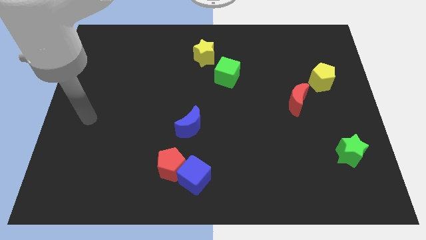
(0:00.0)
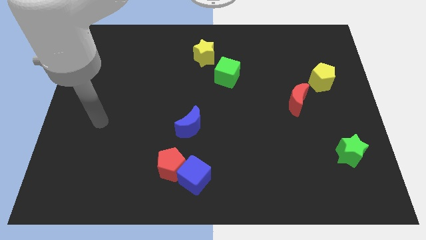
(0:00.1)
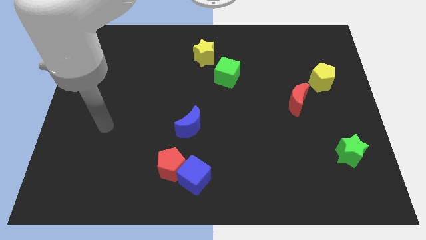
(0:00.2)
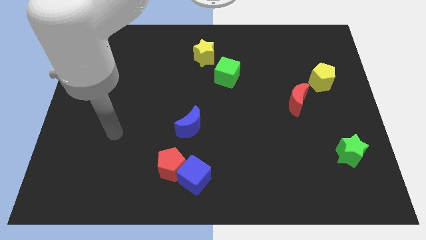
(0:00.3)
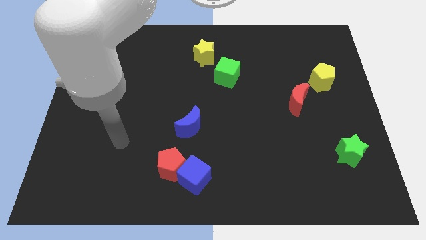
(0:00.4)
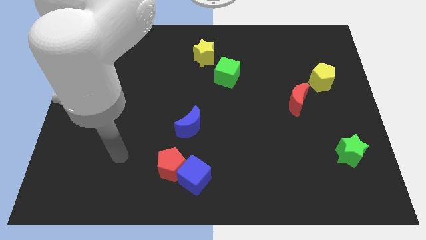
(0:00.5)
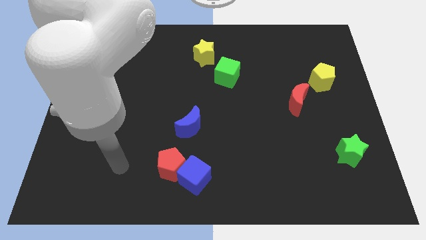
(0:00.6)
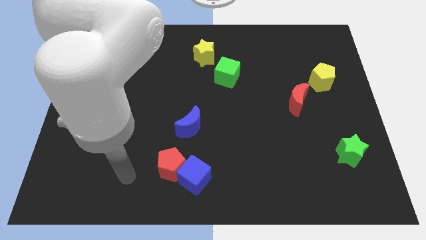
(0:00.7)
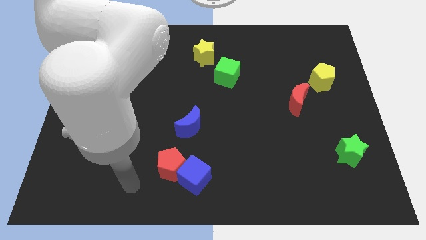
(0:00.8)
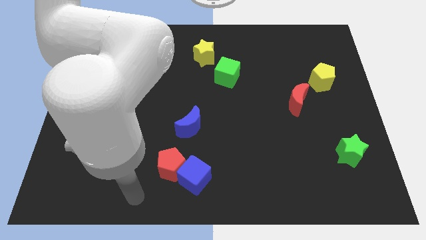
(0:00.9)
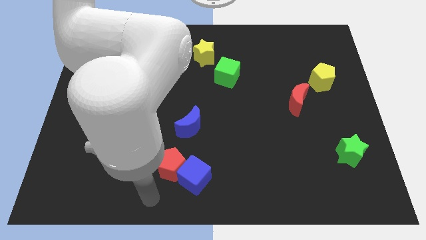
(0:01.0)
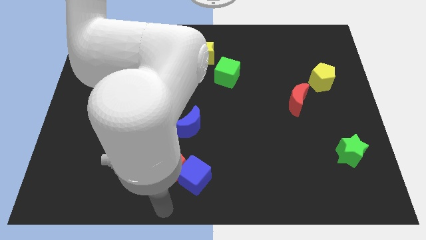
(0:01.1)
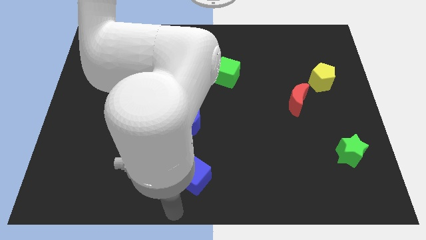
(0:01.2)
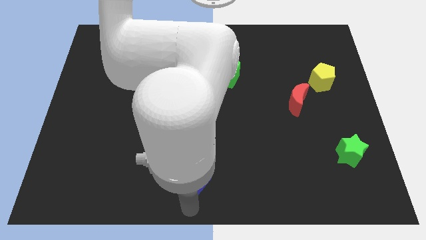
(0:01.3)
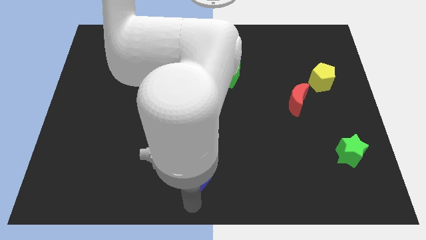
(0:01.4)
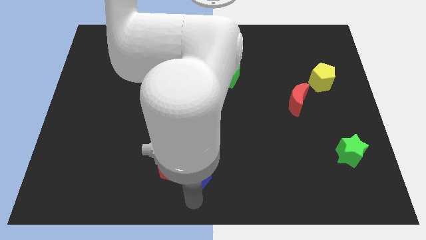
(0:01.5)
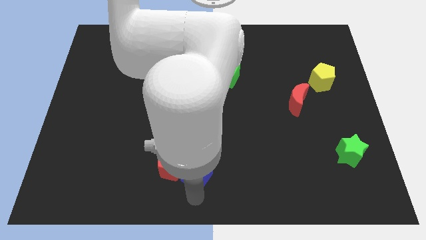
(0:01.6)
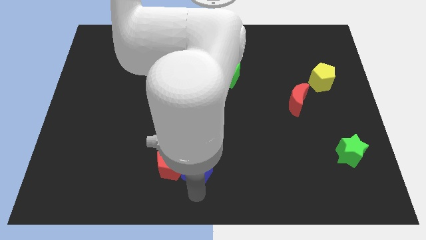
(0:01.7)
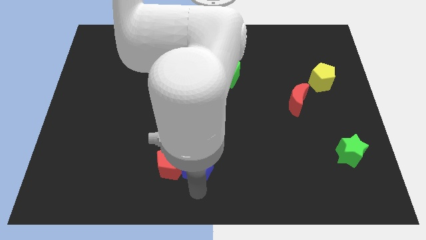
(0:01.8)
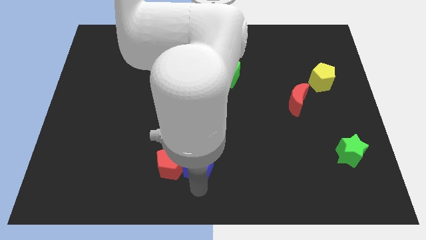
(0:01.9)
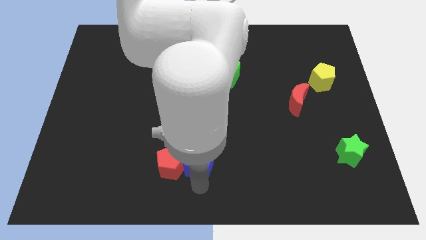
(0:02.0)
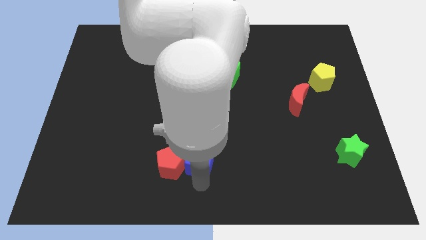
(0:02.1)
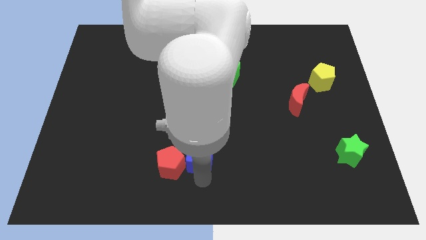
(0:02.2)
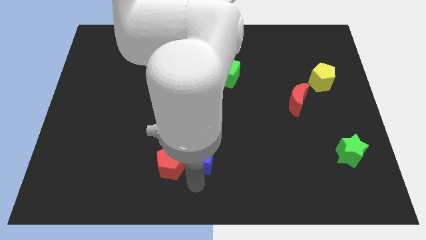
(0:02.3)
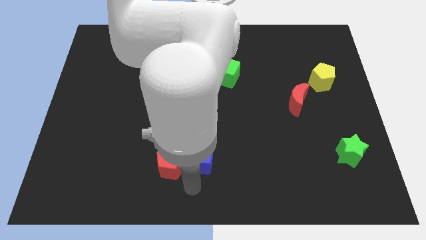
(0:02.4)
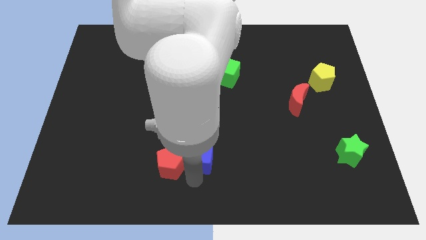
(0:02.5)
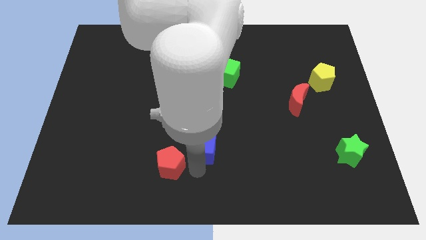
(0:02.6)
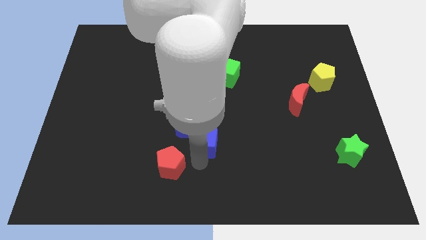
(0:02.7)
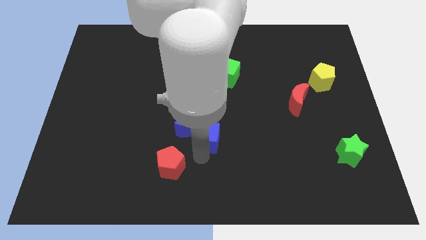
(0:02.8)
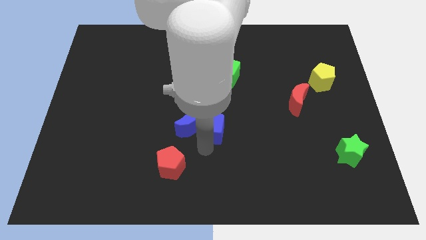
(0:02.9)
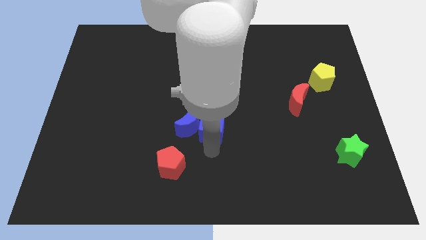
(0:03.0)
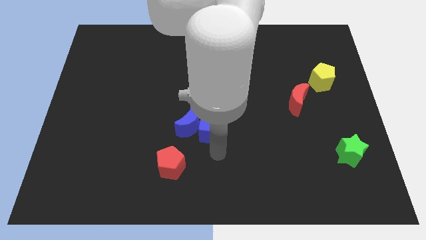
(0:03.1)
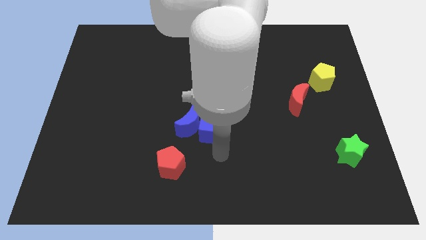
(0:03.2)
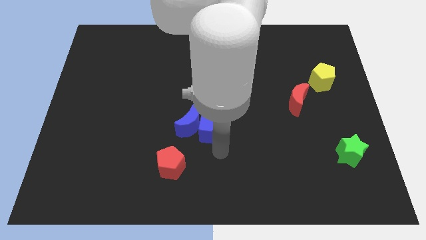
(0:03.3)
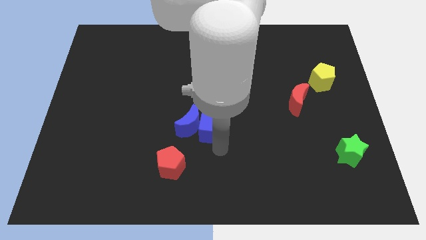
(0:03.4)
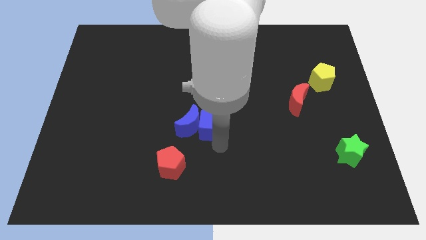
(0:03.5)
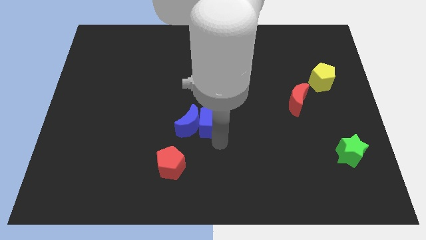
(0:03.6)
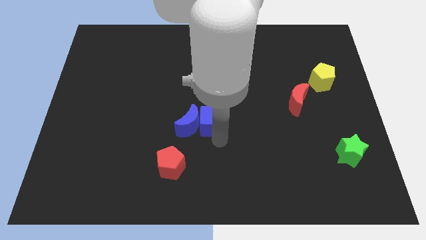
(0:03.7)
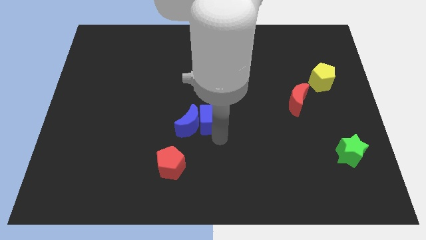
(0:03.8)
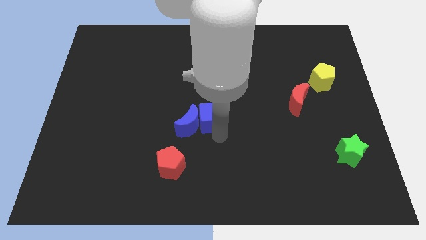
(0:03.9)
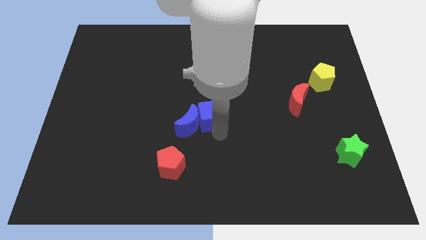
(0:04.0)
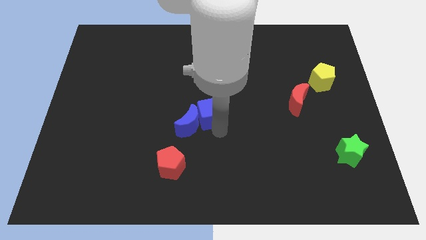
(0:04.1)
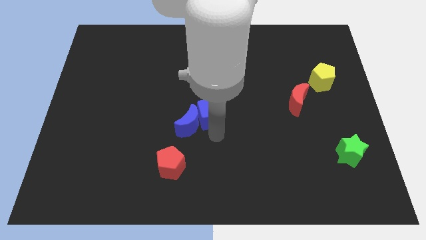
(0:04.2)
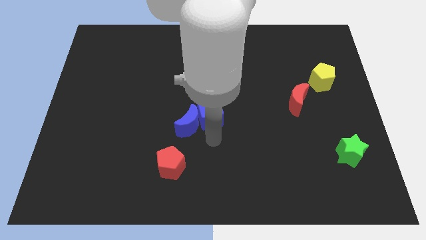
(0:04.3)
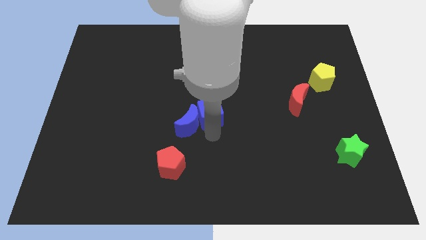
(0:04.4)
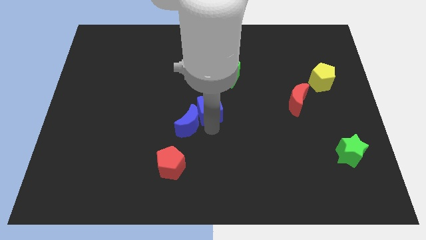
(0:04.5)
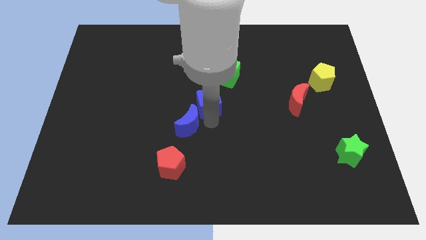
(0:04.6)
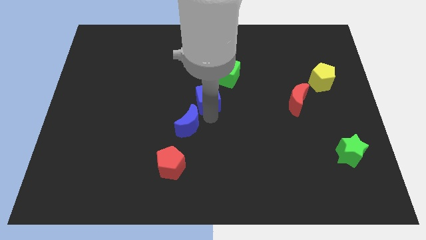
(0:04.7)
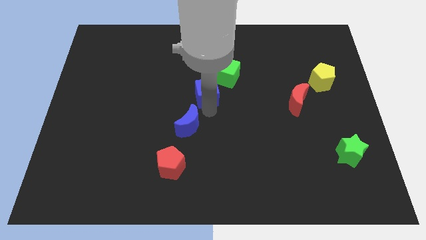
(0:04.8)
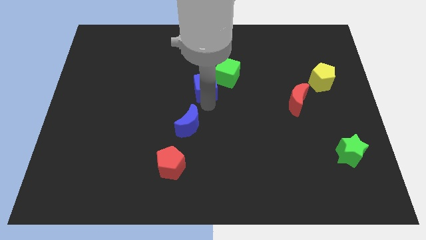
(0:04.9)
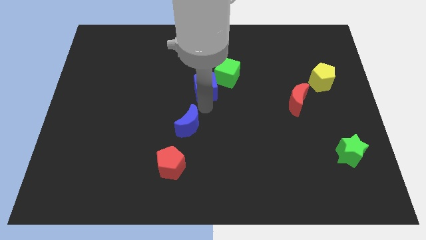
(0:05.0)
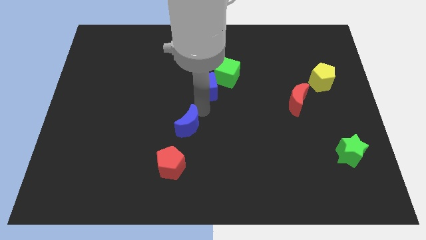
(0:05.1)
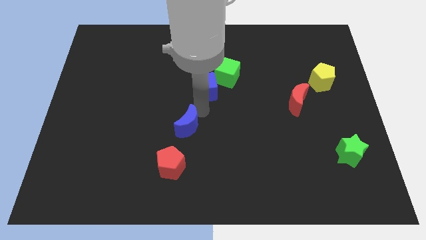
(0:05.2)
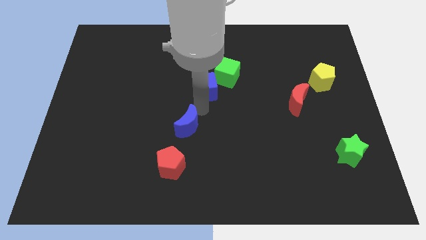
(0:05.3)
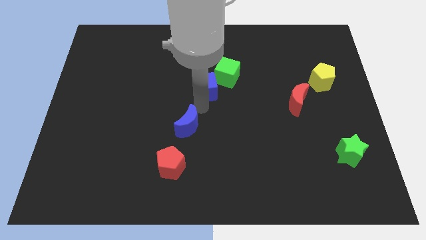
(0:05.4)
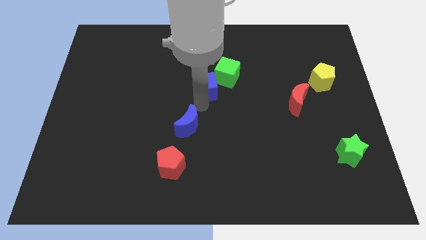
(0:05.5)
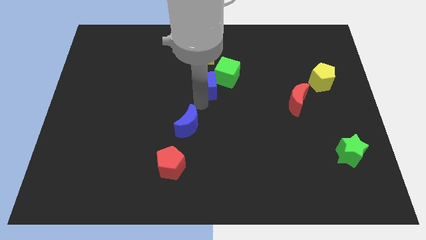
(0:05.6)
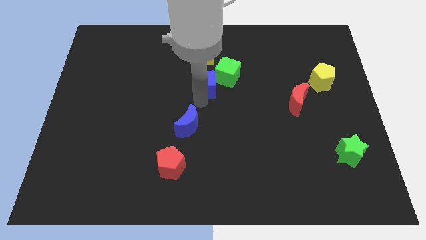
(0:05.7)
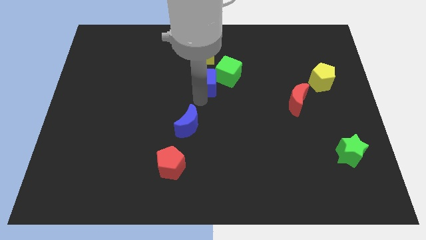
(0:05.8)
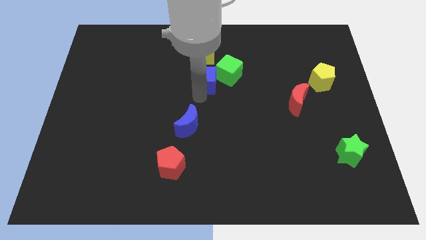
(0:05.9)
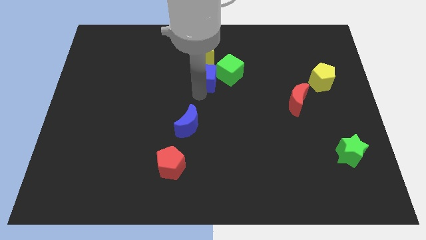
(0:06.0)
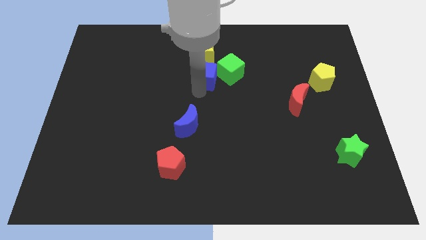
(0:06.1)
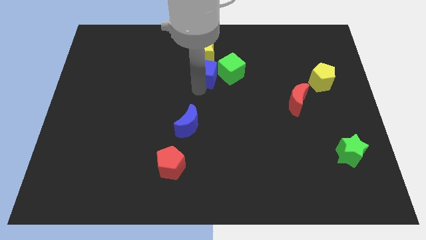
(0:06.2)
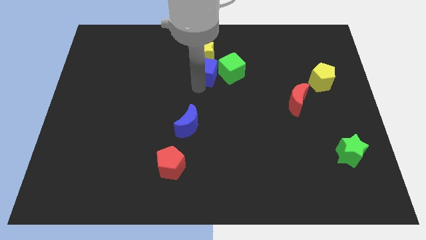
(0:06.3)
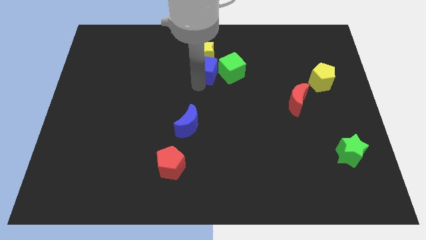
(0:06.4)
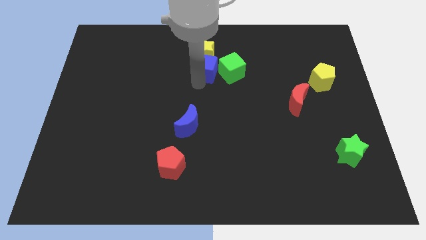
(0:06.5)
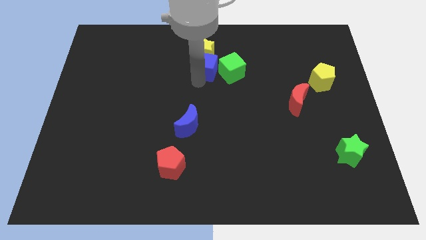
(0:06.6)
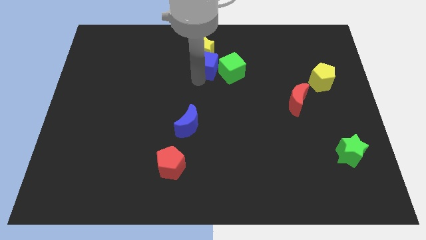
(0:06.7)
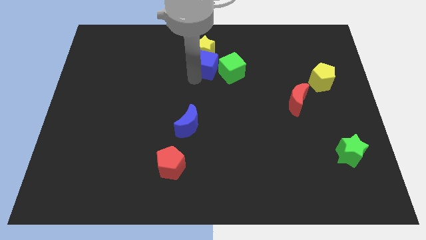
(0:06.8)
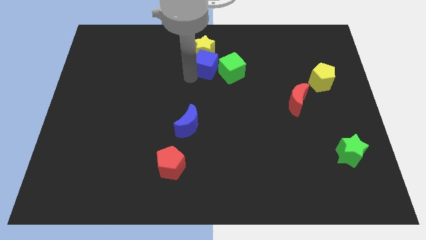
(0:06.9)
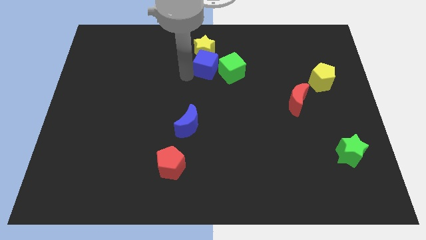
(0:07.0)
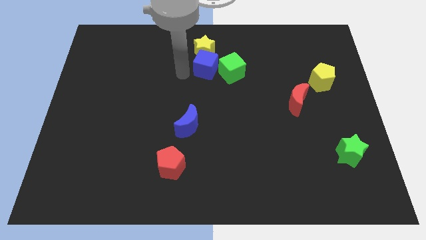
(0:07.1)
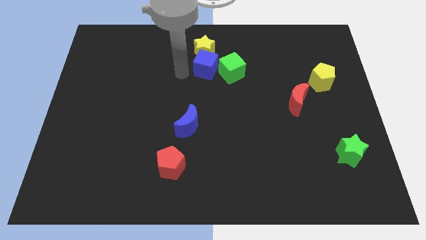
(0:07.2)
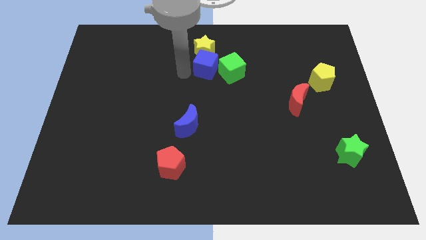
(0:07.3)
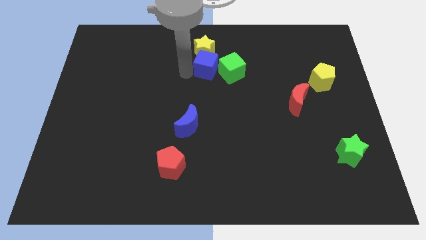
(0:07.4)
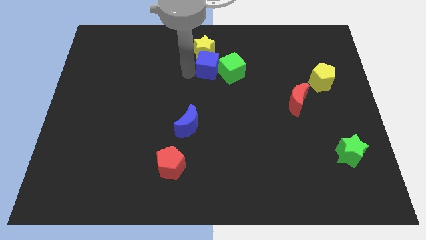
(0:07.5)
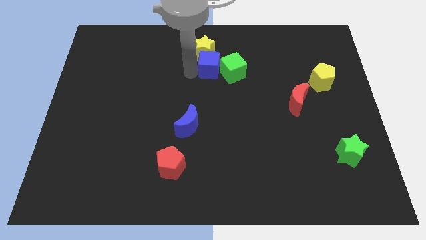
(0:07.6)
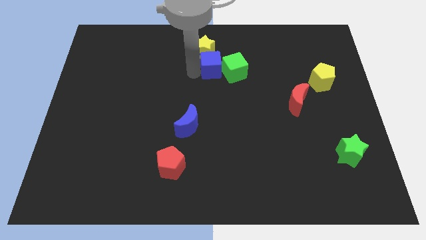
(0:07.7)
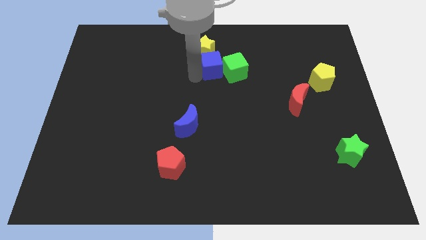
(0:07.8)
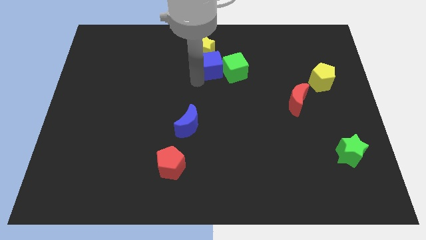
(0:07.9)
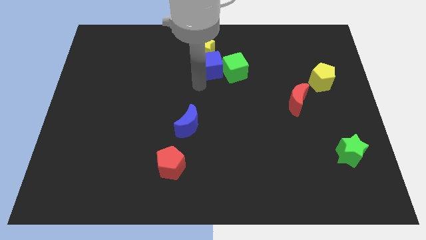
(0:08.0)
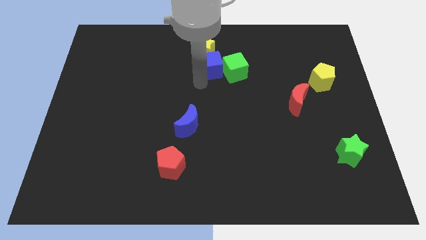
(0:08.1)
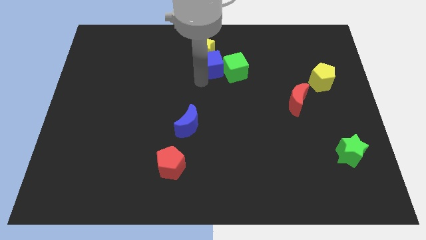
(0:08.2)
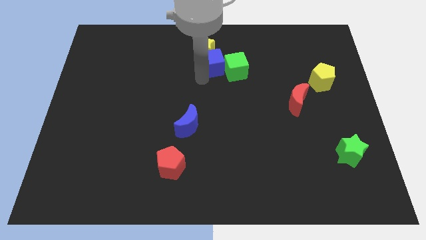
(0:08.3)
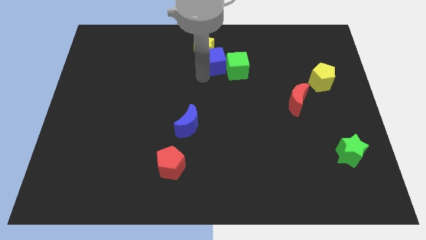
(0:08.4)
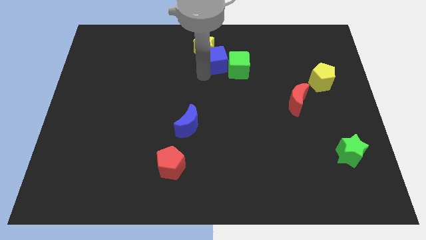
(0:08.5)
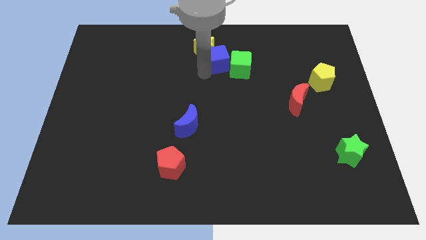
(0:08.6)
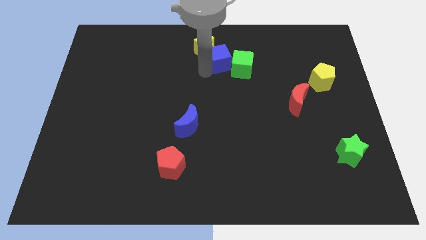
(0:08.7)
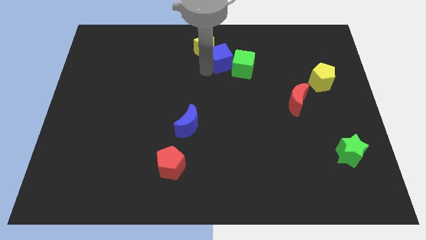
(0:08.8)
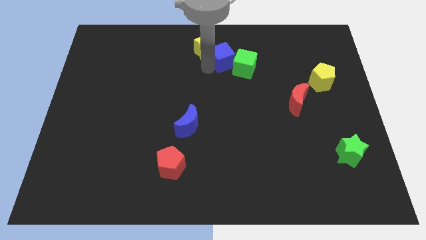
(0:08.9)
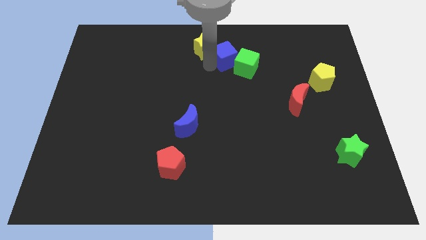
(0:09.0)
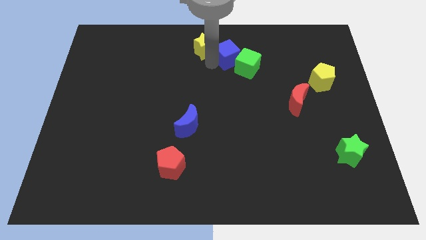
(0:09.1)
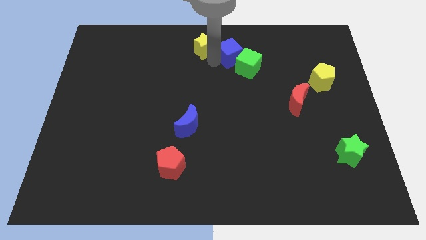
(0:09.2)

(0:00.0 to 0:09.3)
put the blue cube to the top
